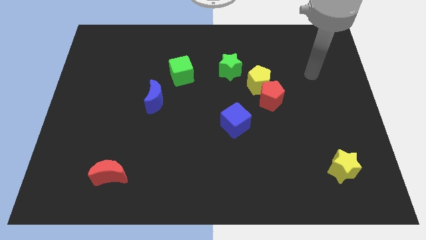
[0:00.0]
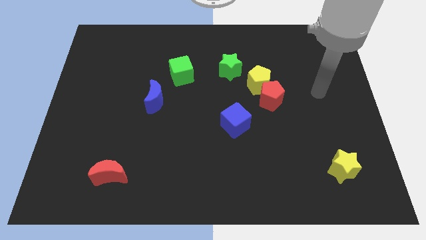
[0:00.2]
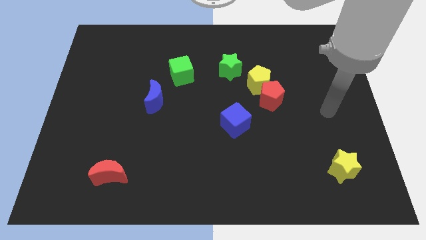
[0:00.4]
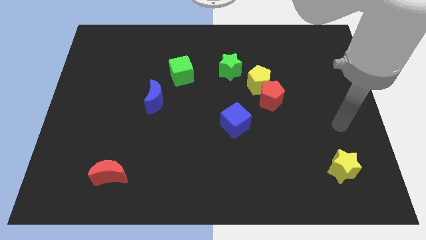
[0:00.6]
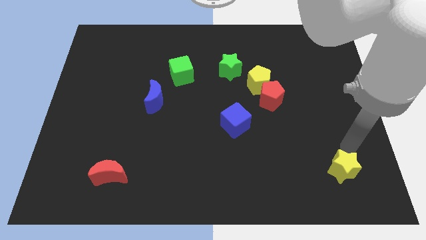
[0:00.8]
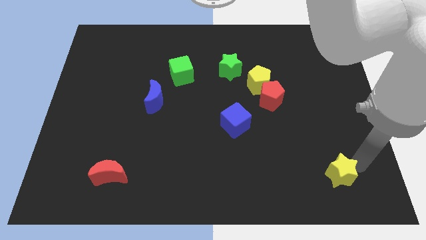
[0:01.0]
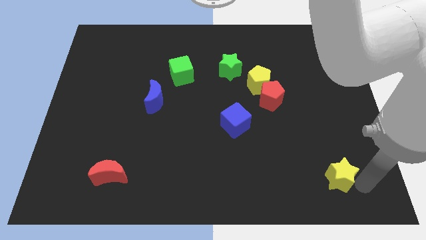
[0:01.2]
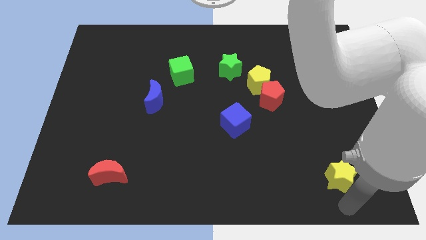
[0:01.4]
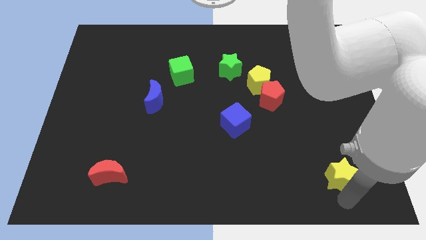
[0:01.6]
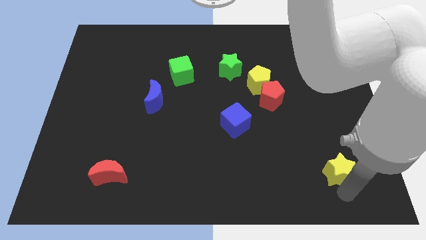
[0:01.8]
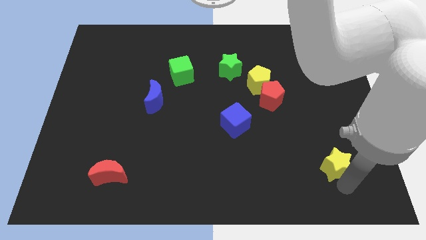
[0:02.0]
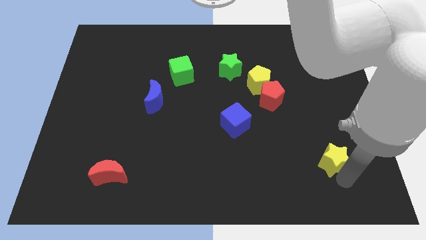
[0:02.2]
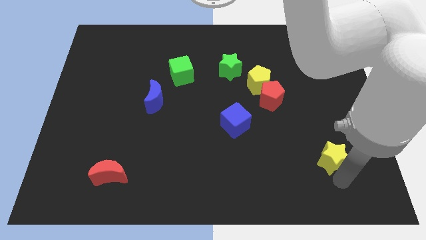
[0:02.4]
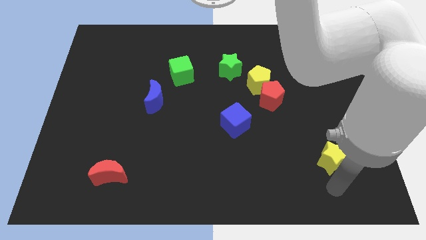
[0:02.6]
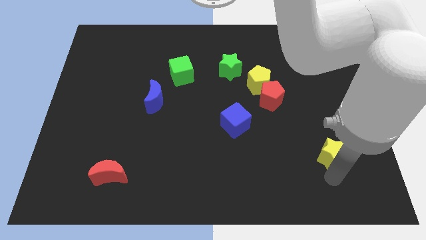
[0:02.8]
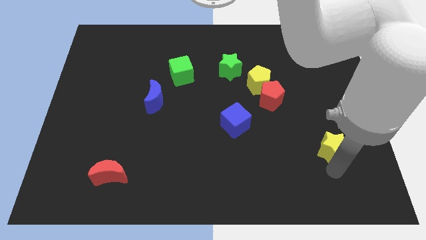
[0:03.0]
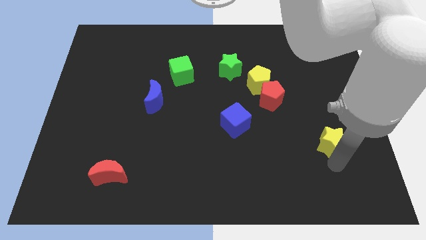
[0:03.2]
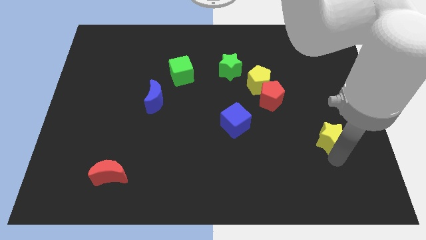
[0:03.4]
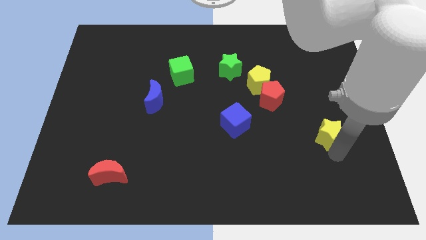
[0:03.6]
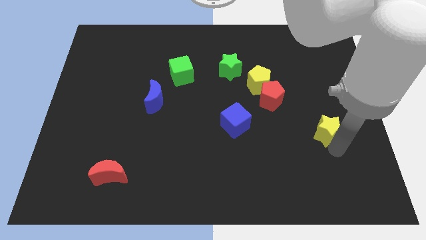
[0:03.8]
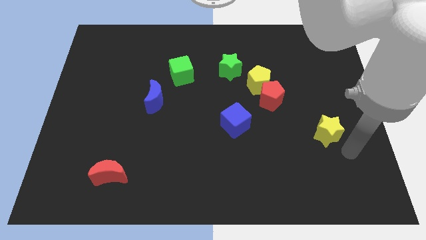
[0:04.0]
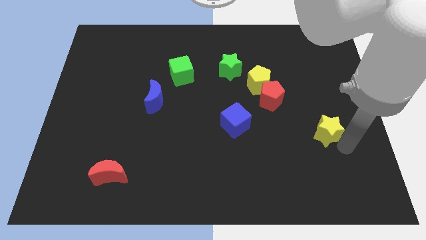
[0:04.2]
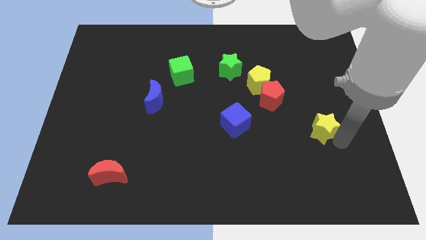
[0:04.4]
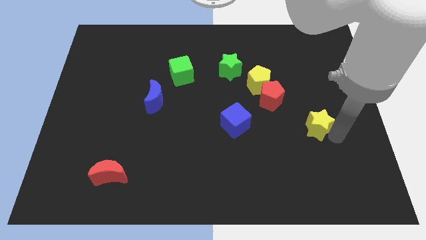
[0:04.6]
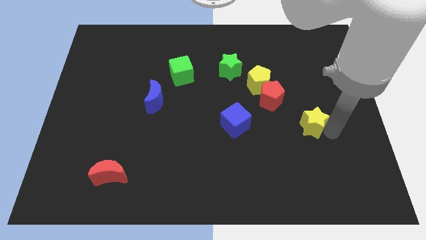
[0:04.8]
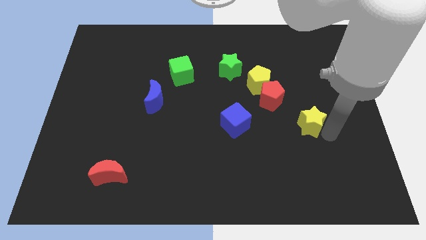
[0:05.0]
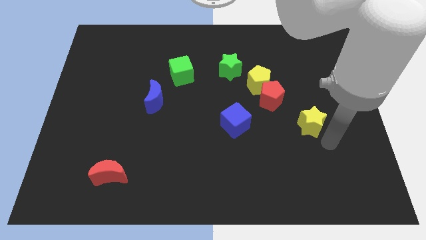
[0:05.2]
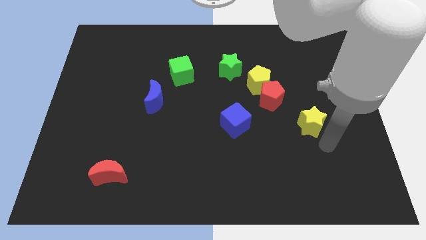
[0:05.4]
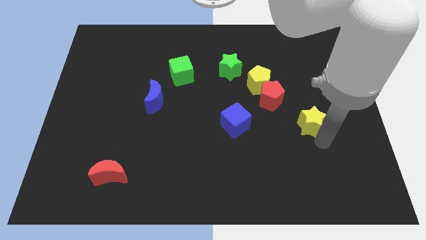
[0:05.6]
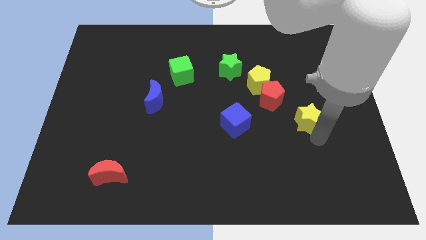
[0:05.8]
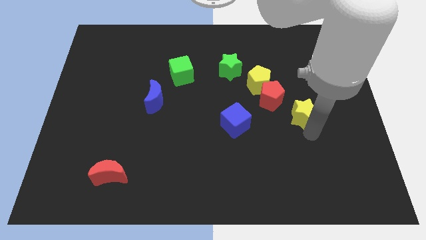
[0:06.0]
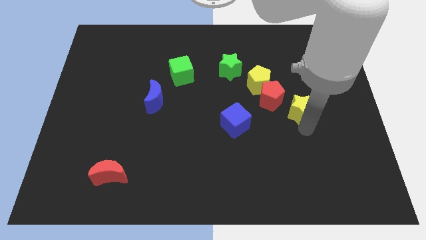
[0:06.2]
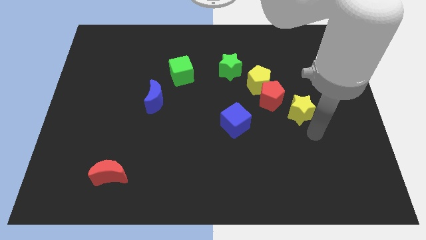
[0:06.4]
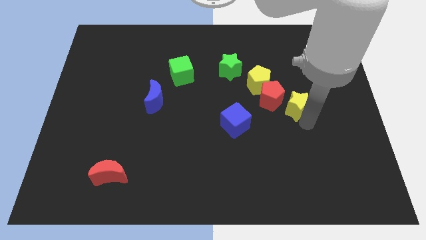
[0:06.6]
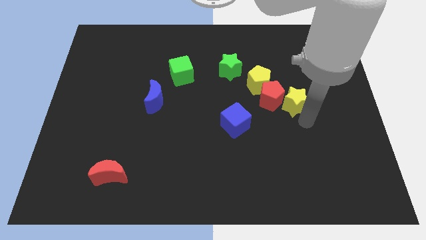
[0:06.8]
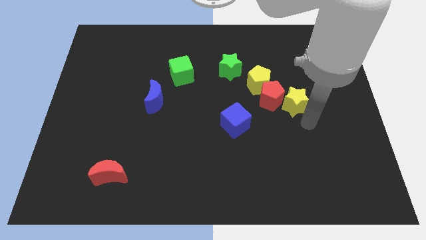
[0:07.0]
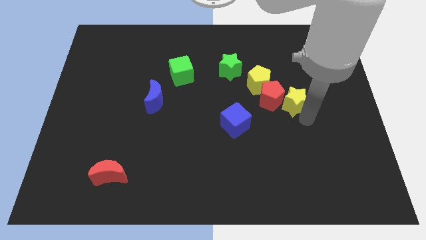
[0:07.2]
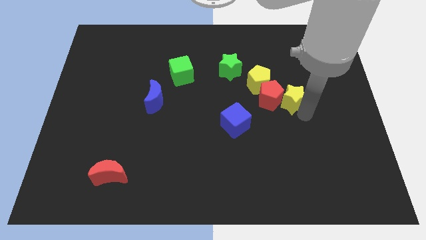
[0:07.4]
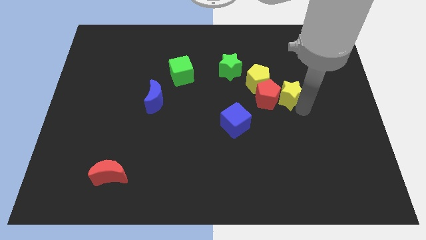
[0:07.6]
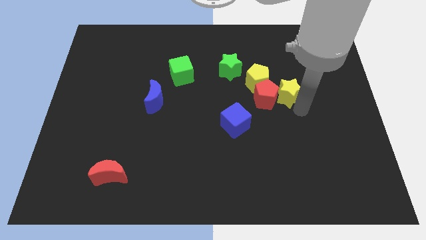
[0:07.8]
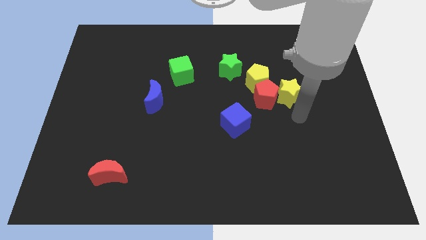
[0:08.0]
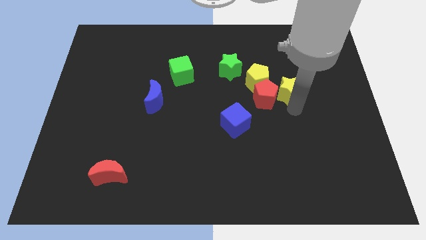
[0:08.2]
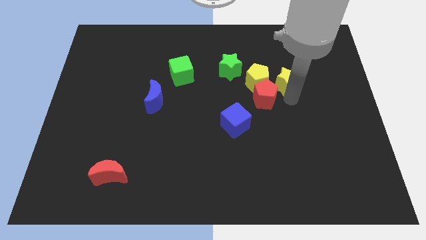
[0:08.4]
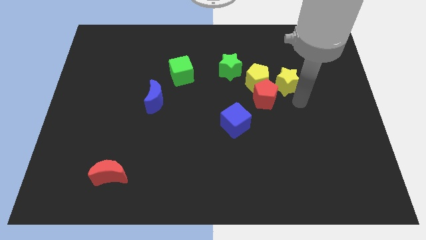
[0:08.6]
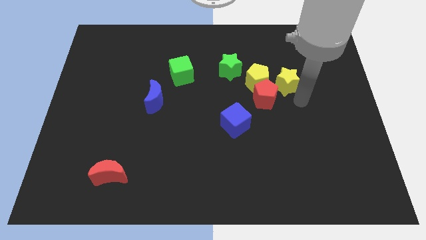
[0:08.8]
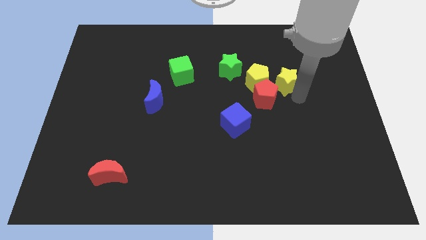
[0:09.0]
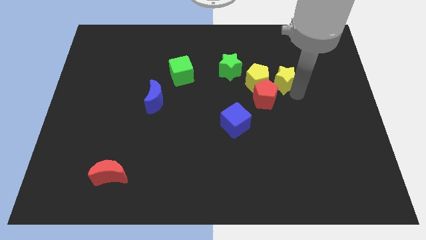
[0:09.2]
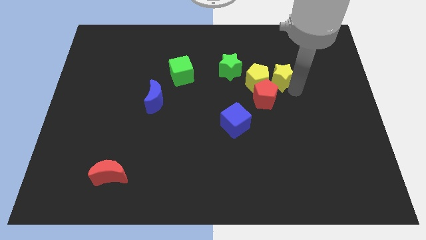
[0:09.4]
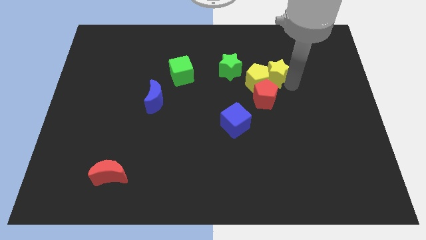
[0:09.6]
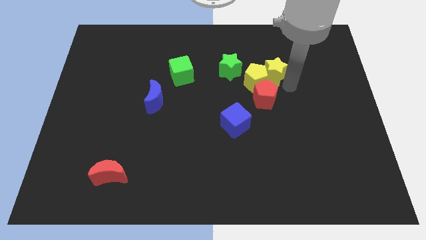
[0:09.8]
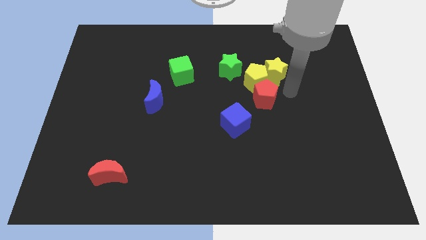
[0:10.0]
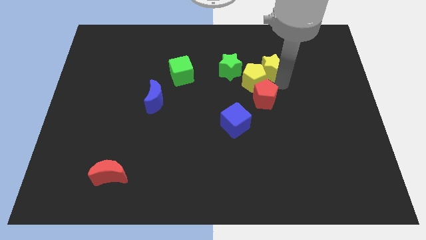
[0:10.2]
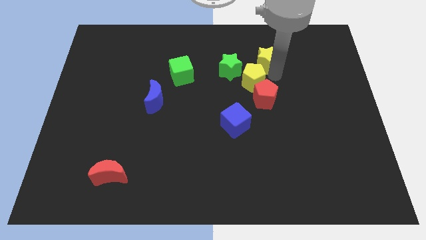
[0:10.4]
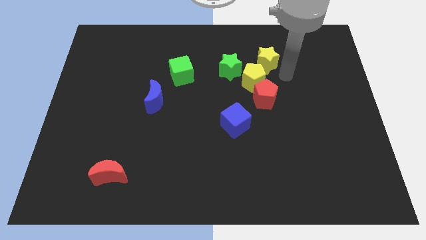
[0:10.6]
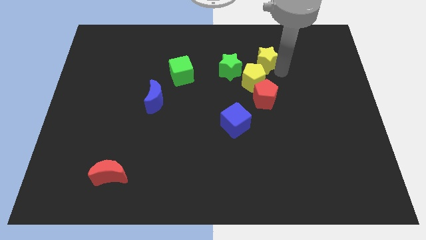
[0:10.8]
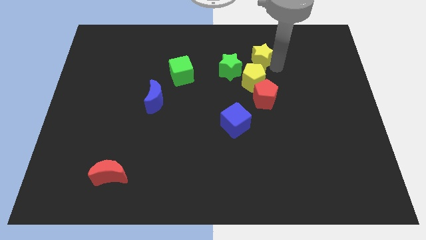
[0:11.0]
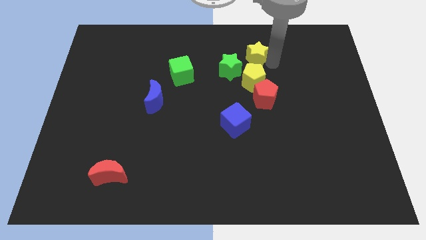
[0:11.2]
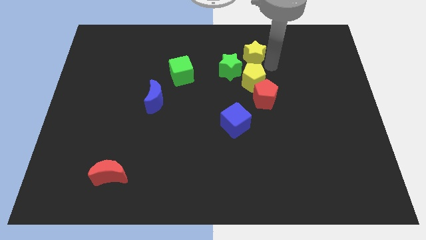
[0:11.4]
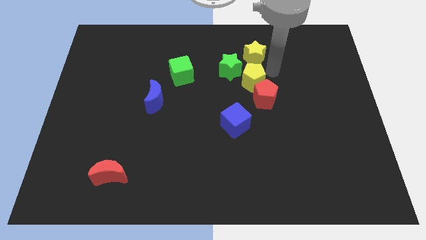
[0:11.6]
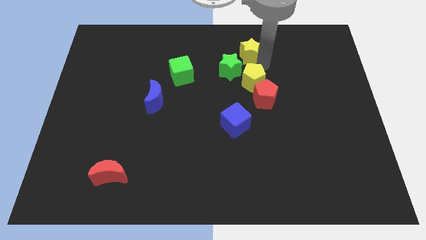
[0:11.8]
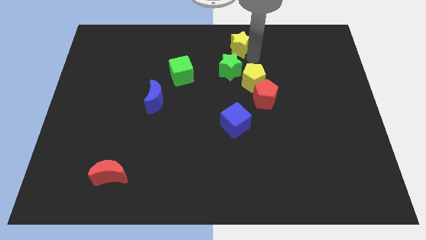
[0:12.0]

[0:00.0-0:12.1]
slide the yellow star to the top
